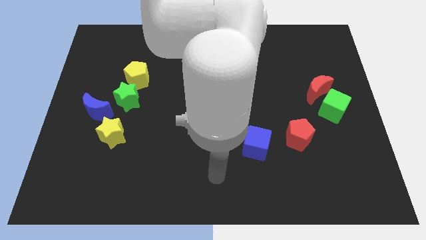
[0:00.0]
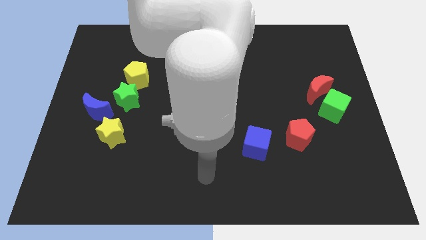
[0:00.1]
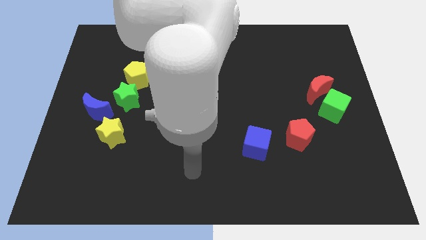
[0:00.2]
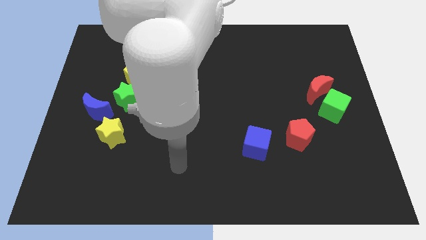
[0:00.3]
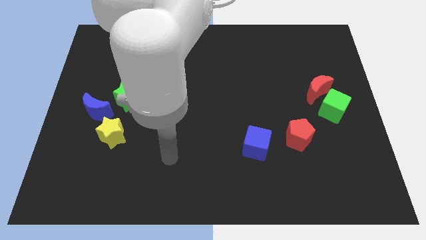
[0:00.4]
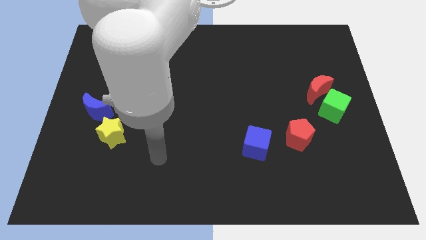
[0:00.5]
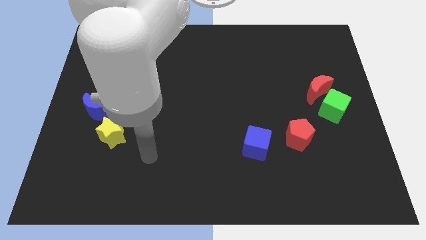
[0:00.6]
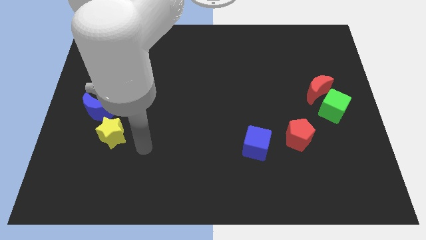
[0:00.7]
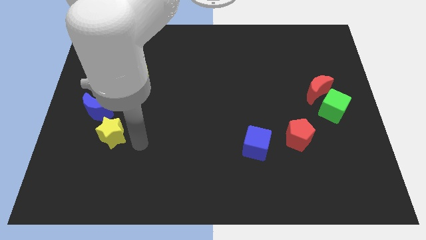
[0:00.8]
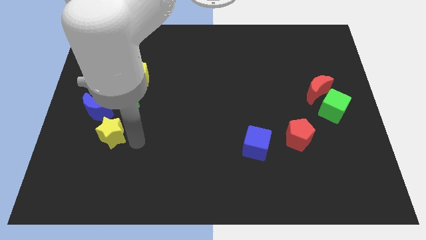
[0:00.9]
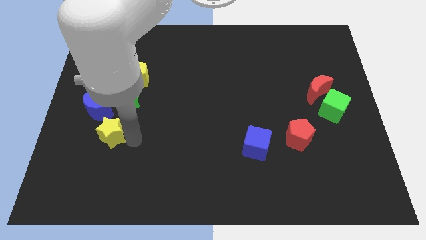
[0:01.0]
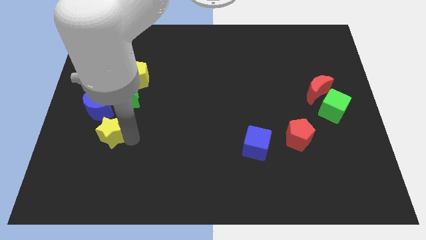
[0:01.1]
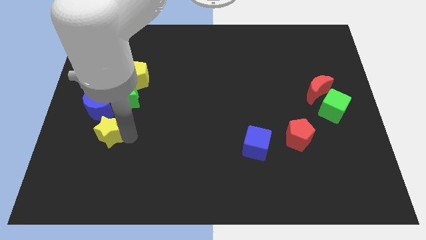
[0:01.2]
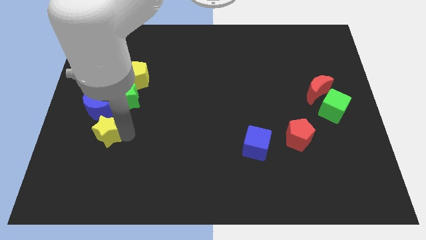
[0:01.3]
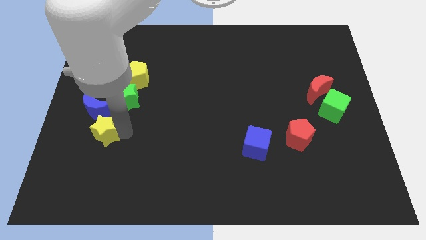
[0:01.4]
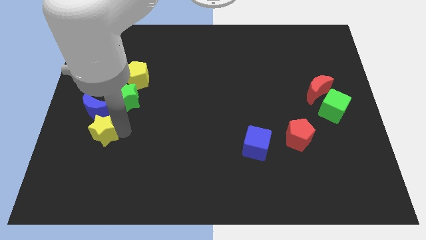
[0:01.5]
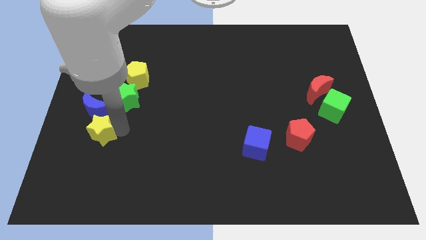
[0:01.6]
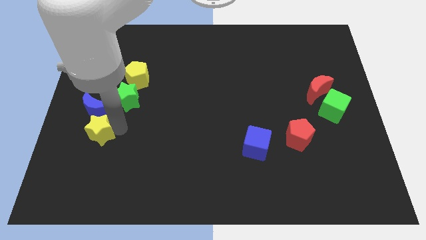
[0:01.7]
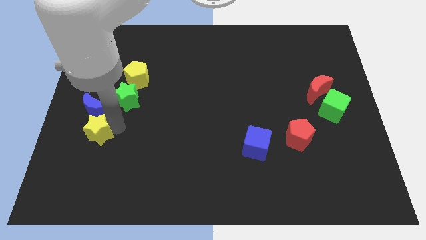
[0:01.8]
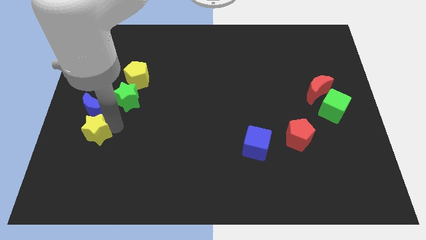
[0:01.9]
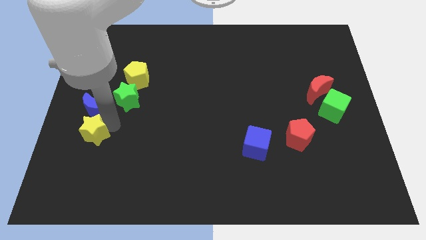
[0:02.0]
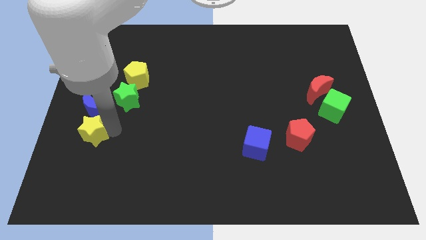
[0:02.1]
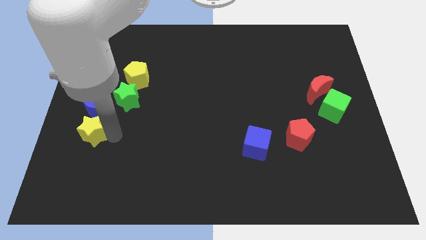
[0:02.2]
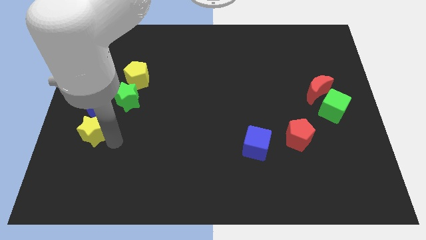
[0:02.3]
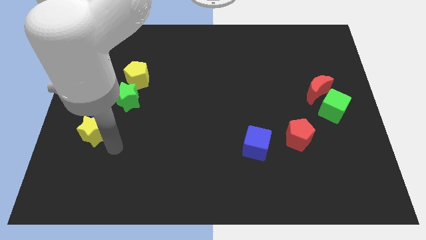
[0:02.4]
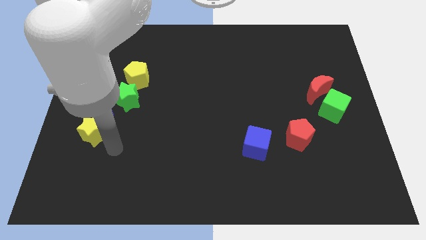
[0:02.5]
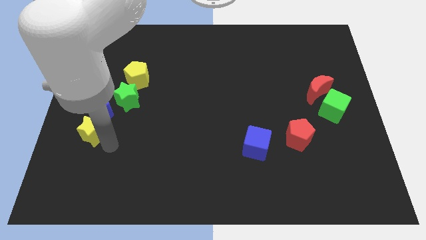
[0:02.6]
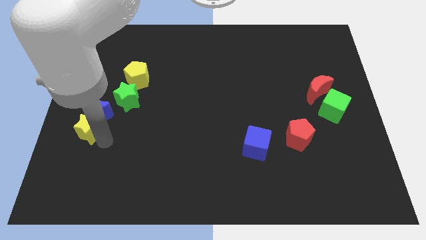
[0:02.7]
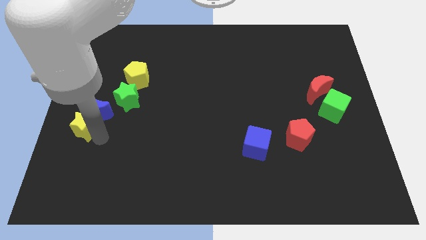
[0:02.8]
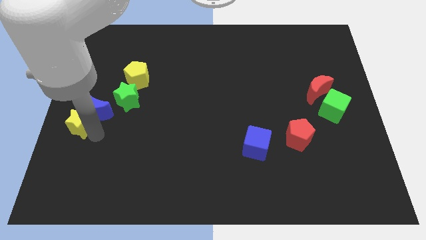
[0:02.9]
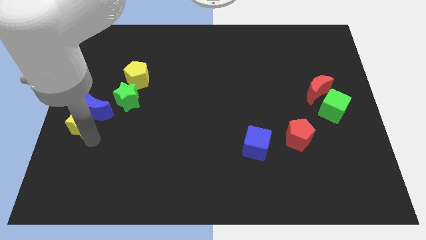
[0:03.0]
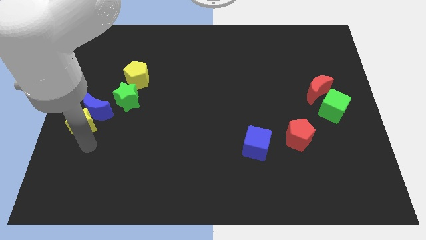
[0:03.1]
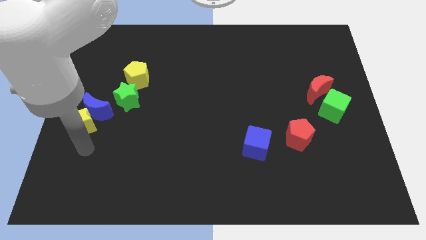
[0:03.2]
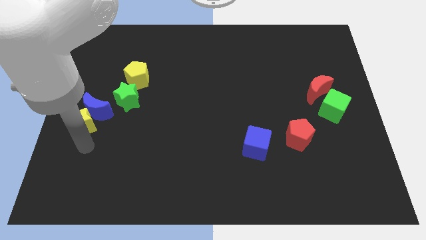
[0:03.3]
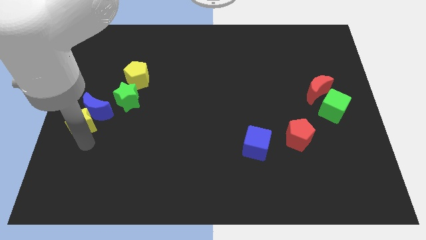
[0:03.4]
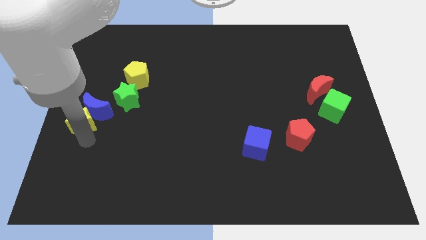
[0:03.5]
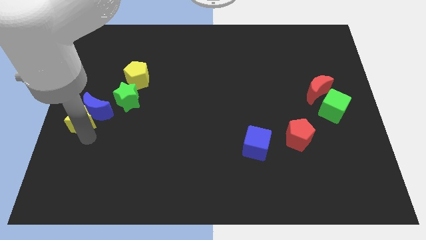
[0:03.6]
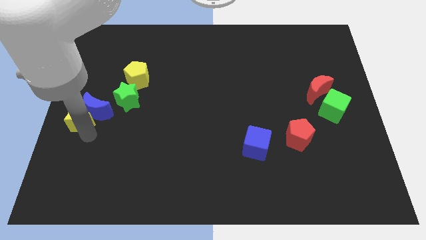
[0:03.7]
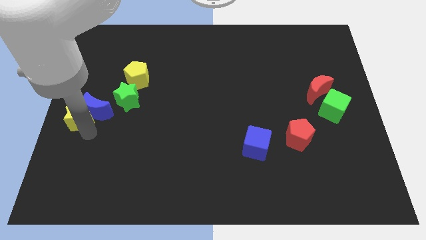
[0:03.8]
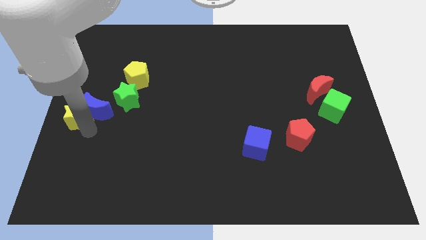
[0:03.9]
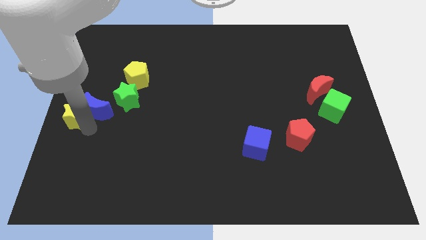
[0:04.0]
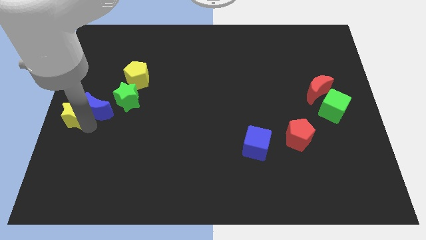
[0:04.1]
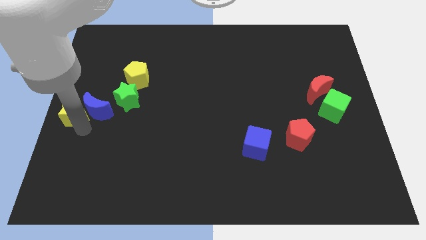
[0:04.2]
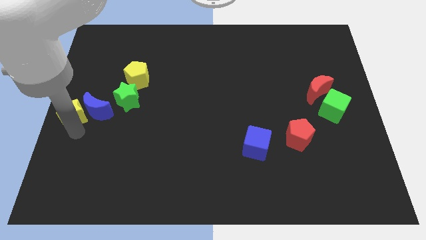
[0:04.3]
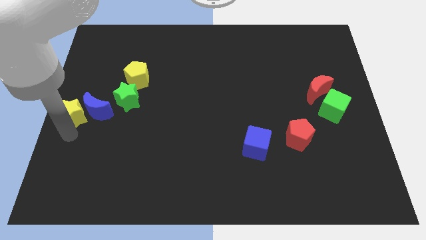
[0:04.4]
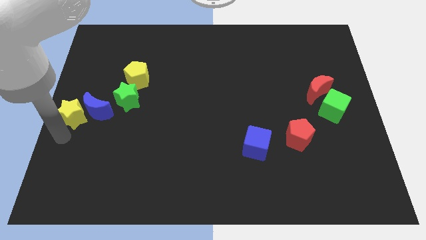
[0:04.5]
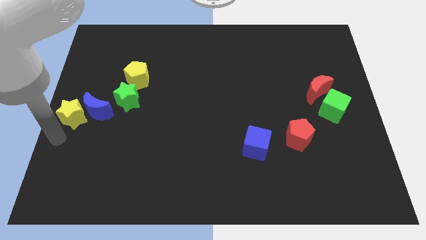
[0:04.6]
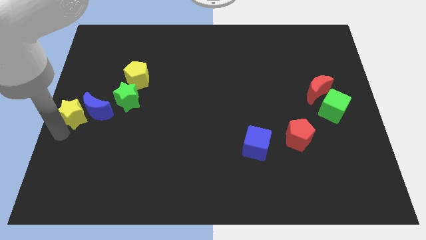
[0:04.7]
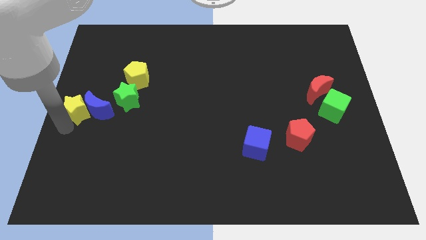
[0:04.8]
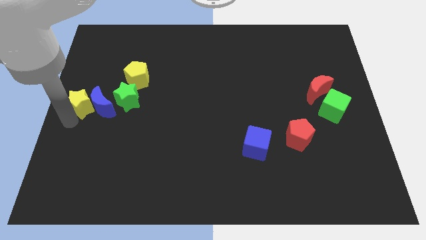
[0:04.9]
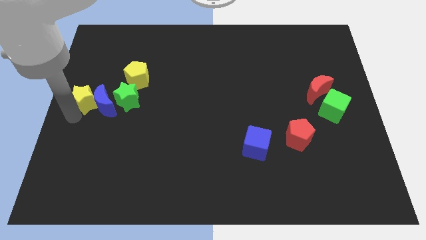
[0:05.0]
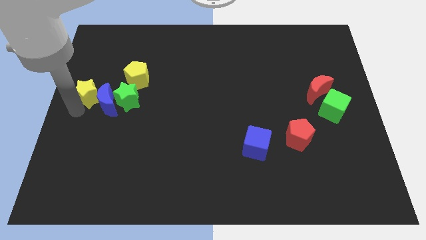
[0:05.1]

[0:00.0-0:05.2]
move the yellow star somewhat up

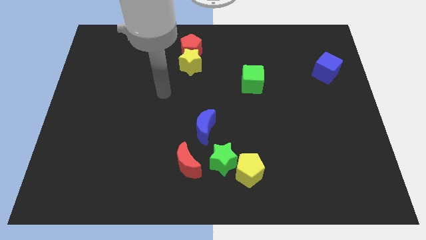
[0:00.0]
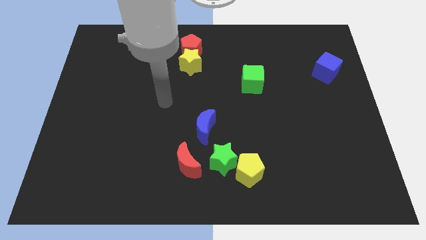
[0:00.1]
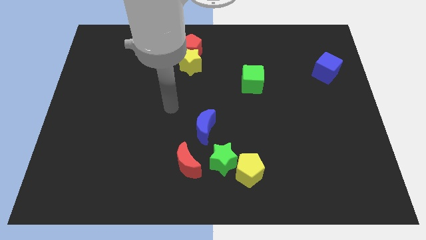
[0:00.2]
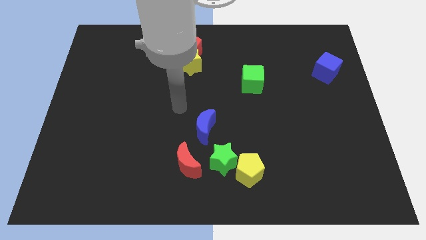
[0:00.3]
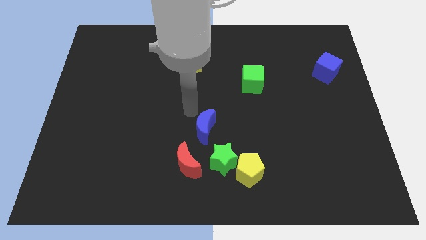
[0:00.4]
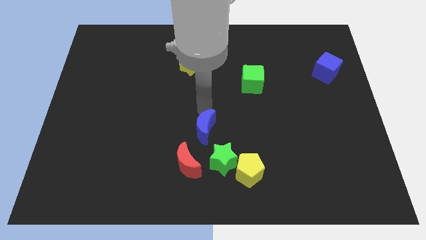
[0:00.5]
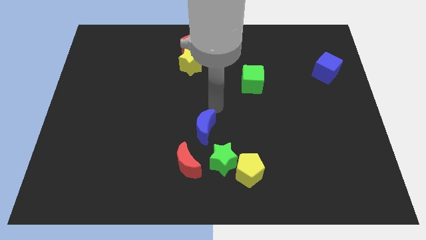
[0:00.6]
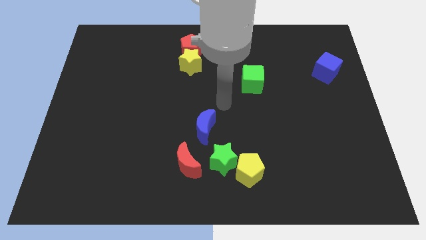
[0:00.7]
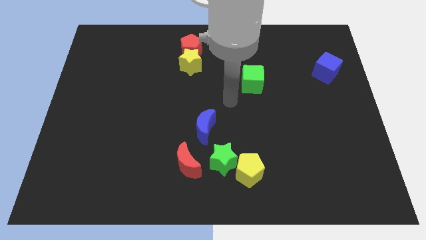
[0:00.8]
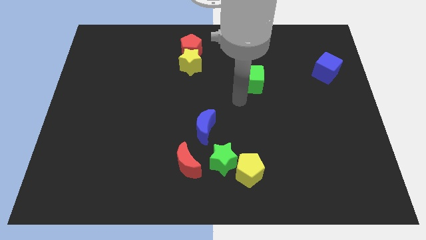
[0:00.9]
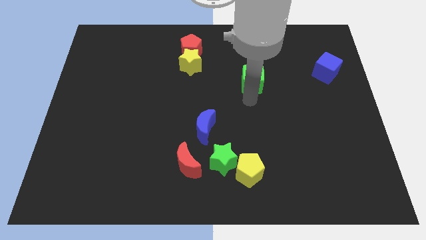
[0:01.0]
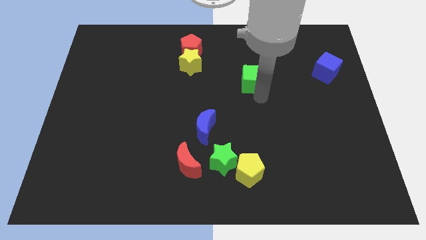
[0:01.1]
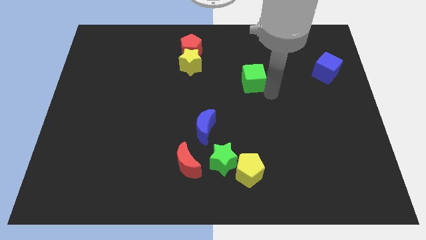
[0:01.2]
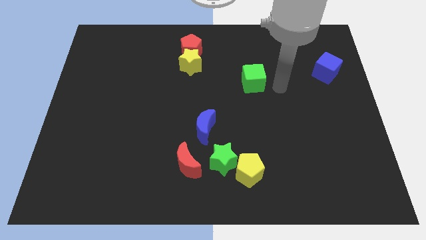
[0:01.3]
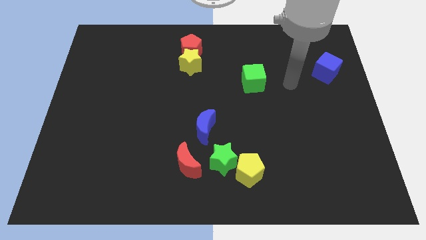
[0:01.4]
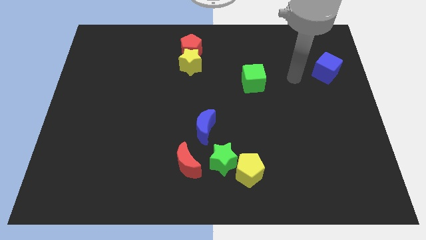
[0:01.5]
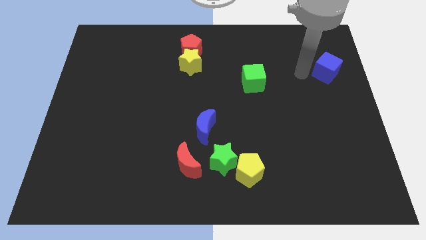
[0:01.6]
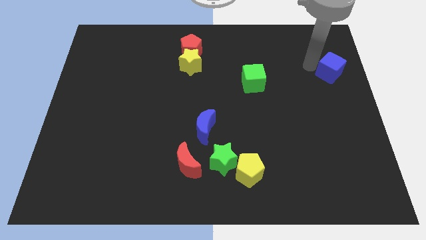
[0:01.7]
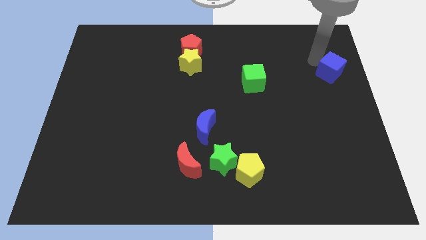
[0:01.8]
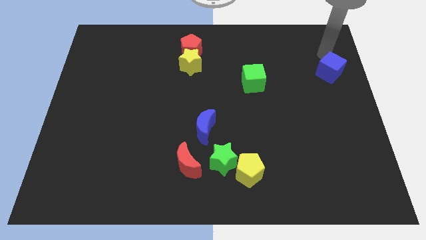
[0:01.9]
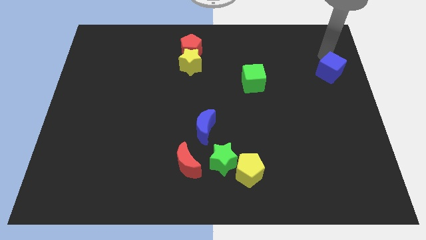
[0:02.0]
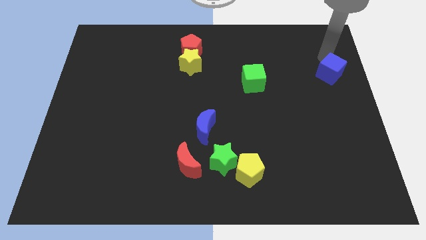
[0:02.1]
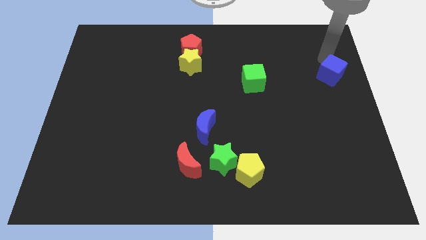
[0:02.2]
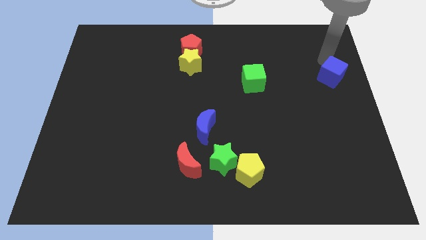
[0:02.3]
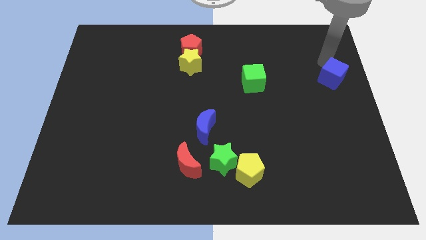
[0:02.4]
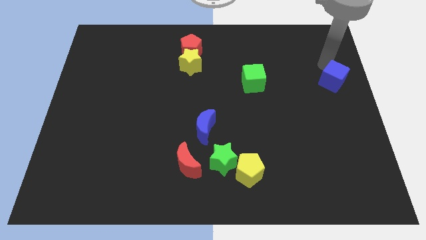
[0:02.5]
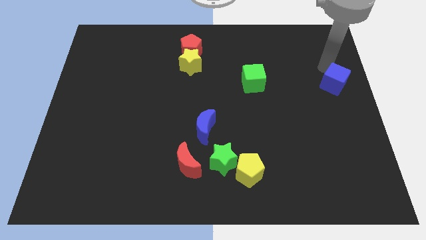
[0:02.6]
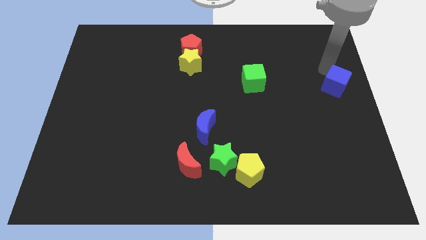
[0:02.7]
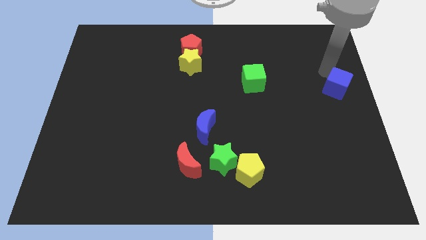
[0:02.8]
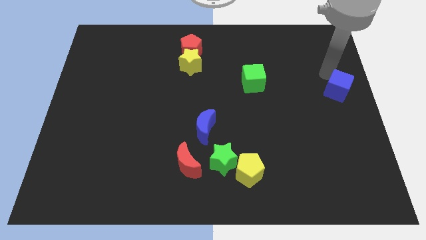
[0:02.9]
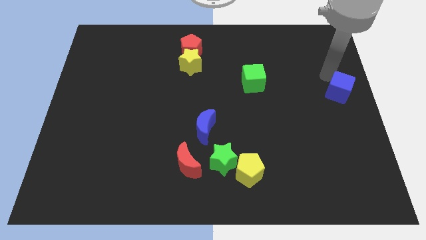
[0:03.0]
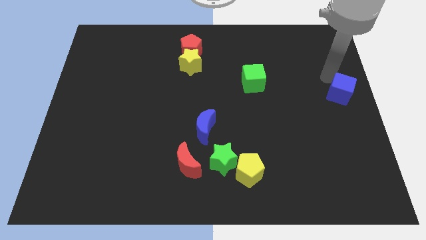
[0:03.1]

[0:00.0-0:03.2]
slightly slide the blue cube down
